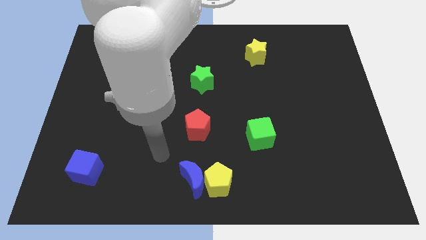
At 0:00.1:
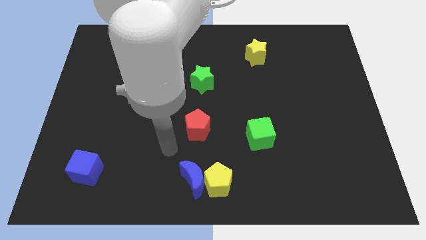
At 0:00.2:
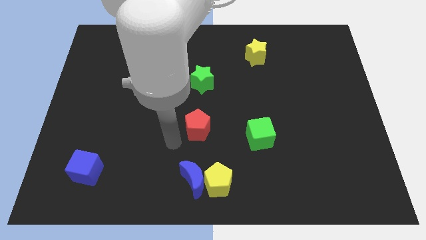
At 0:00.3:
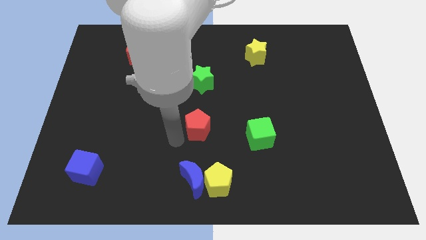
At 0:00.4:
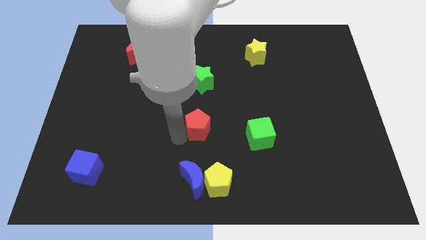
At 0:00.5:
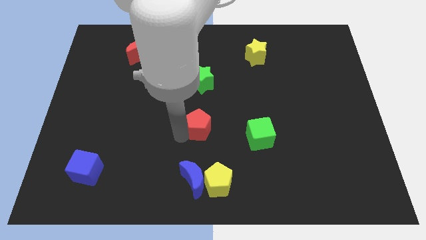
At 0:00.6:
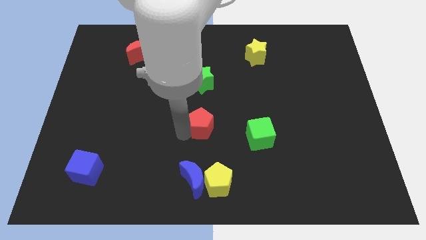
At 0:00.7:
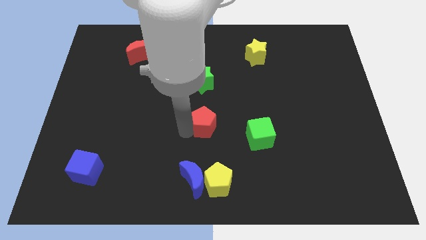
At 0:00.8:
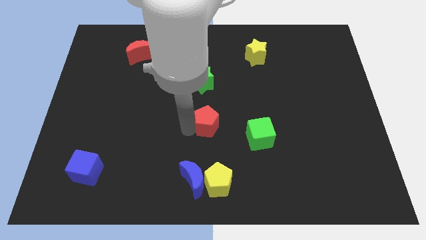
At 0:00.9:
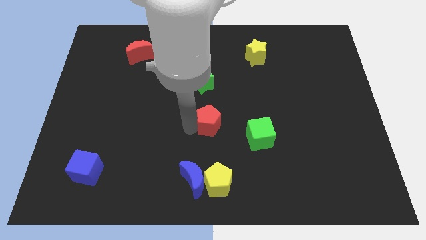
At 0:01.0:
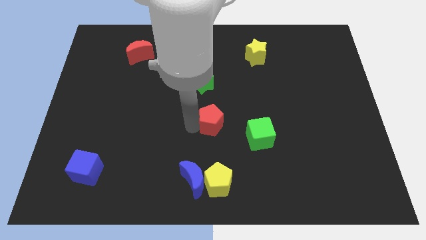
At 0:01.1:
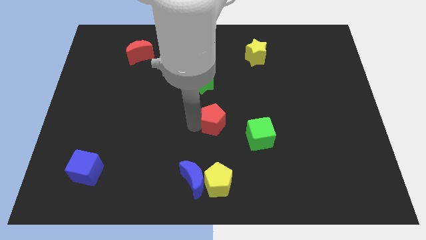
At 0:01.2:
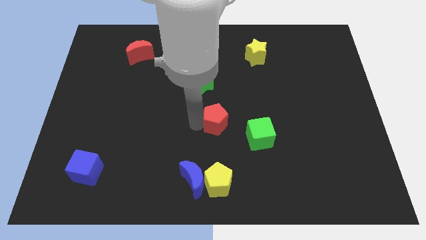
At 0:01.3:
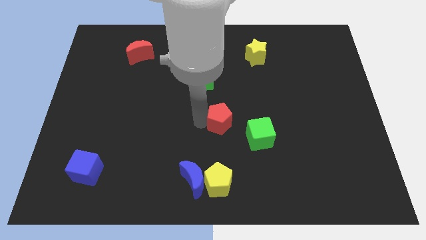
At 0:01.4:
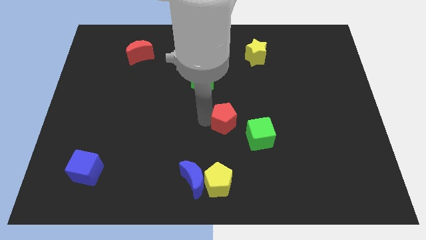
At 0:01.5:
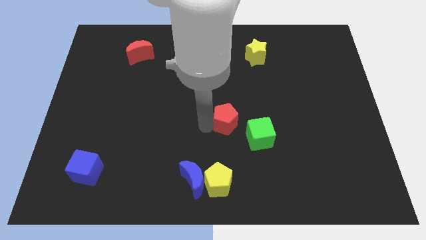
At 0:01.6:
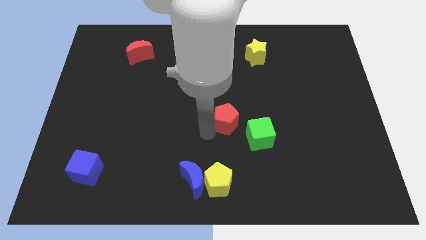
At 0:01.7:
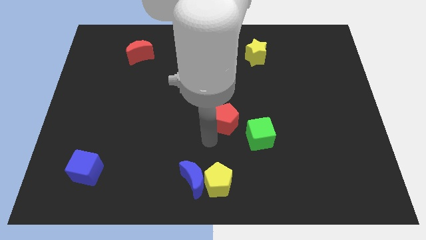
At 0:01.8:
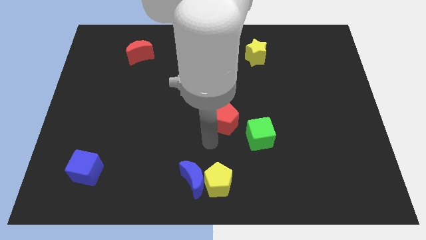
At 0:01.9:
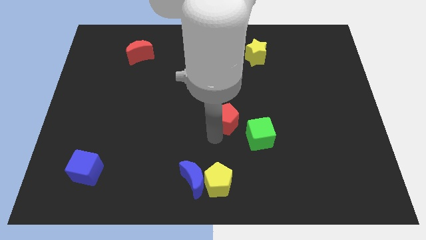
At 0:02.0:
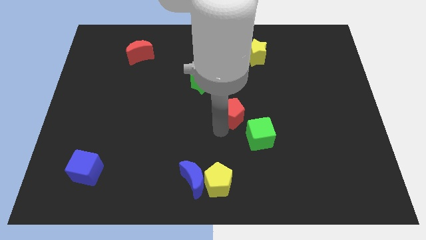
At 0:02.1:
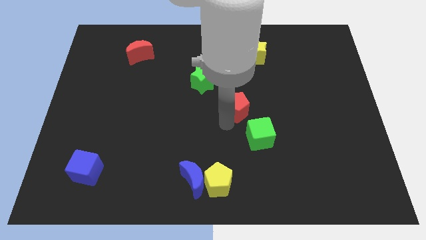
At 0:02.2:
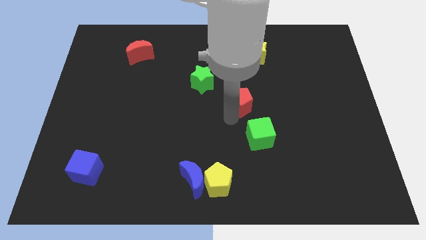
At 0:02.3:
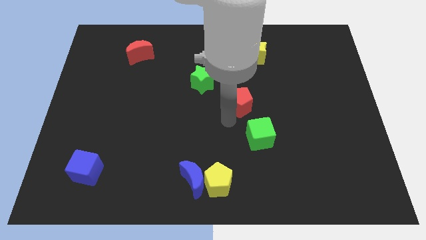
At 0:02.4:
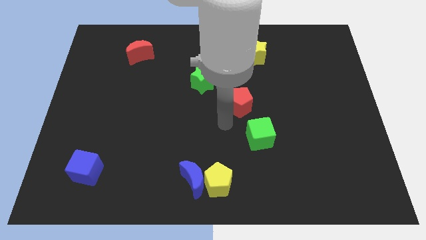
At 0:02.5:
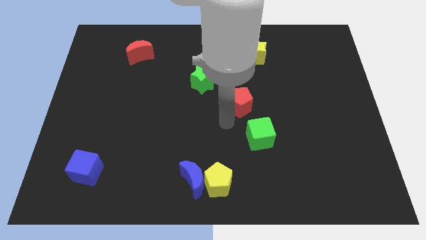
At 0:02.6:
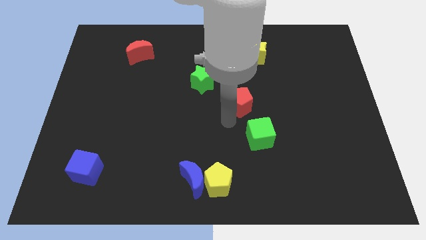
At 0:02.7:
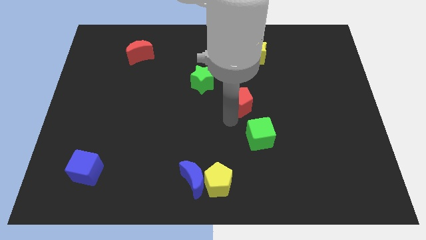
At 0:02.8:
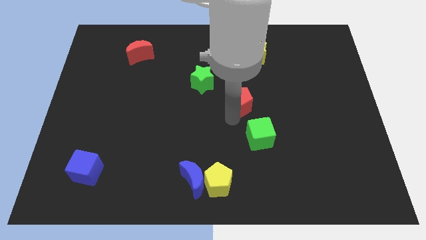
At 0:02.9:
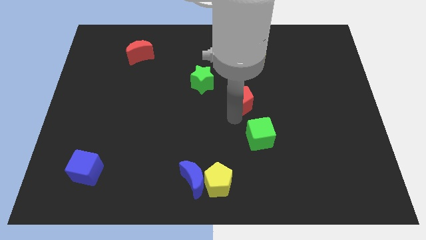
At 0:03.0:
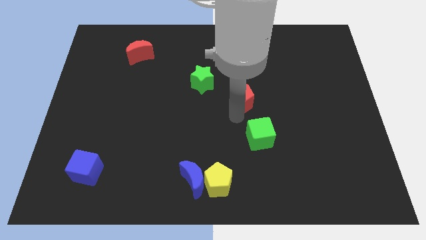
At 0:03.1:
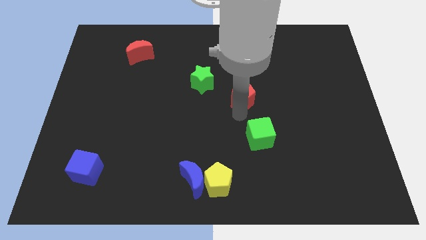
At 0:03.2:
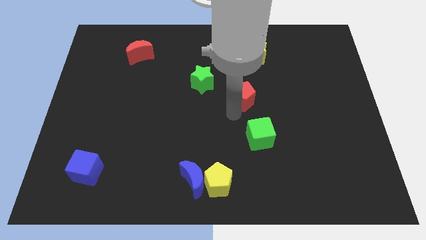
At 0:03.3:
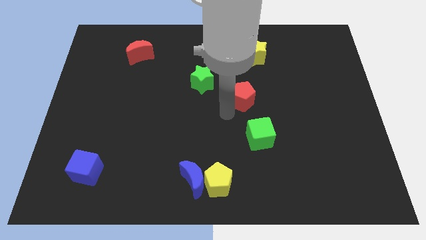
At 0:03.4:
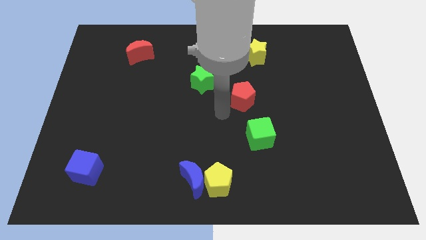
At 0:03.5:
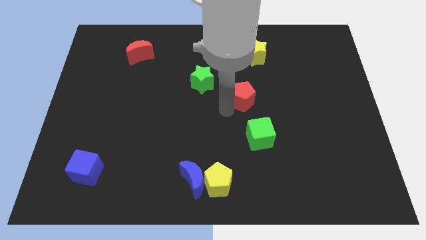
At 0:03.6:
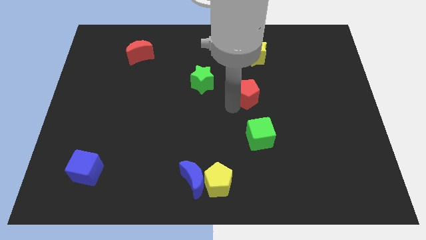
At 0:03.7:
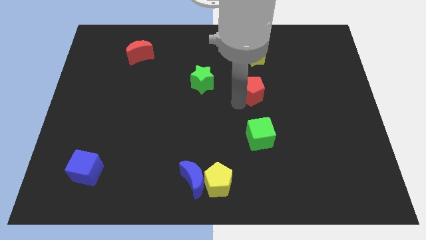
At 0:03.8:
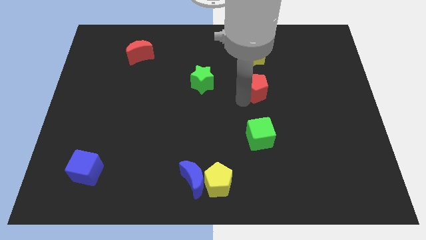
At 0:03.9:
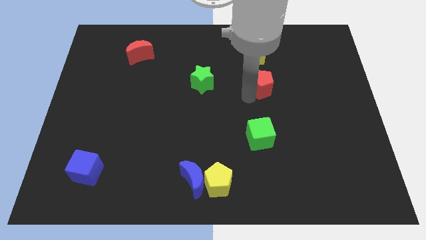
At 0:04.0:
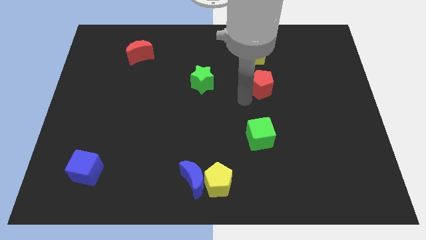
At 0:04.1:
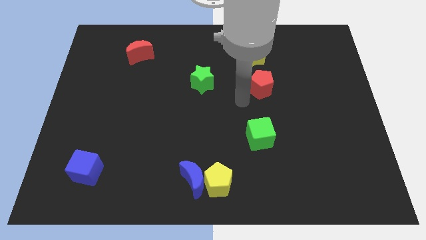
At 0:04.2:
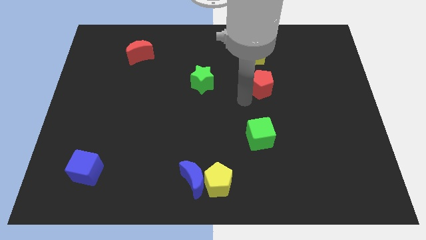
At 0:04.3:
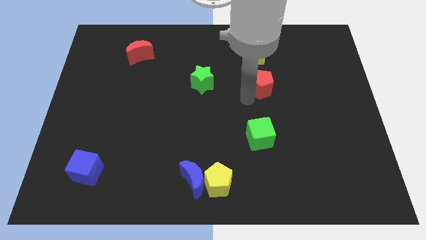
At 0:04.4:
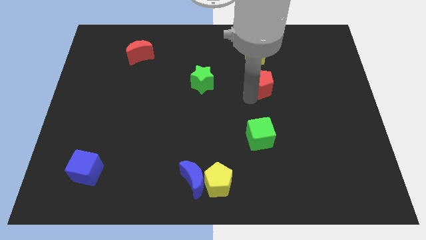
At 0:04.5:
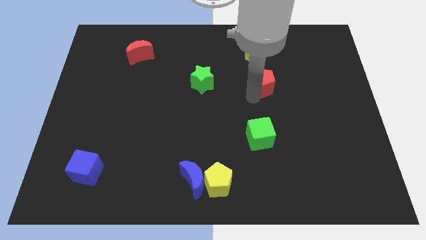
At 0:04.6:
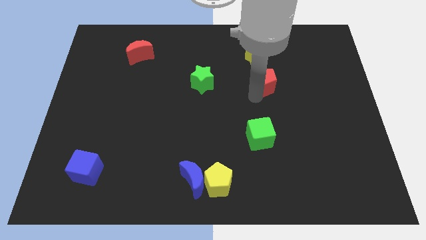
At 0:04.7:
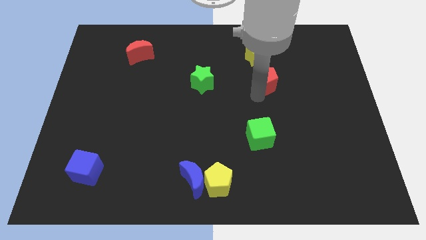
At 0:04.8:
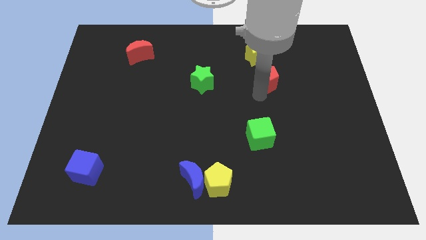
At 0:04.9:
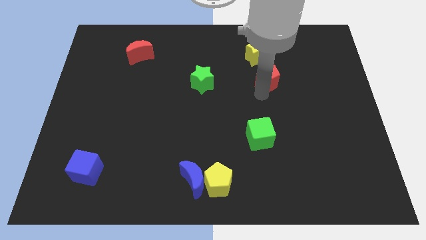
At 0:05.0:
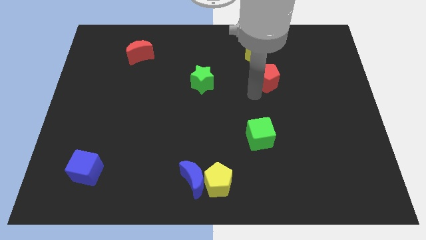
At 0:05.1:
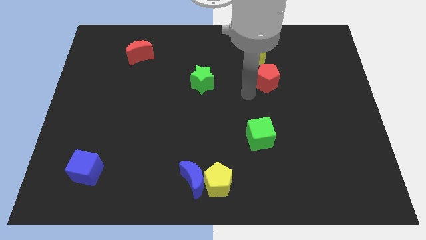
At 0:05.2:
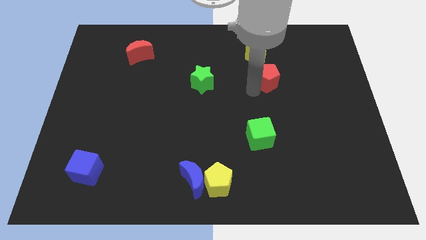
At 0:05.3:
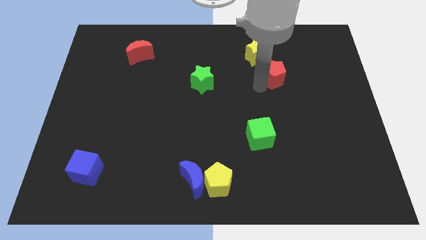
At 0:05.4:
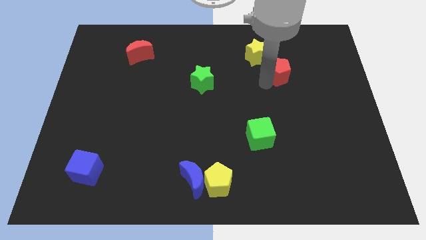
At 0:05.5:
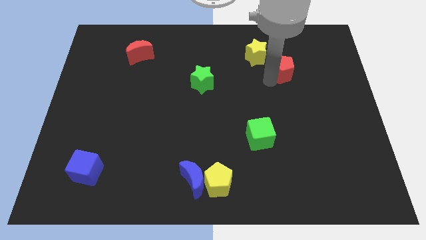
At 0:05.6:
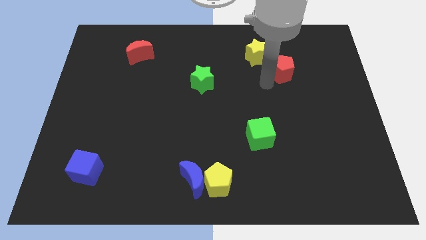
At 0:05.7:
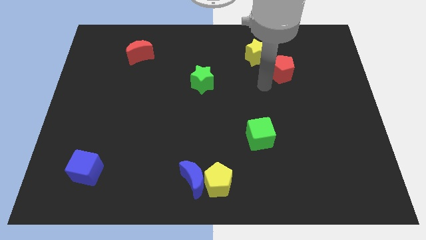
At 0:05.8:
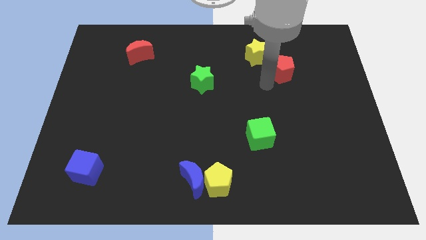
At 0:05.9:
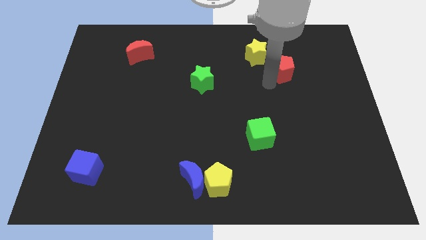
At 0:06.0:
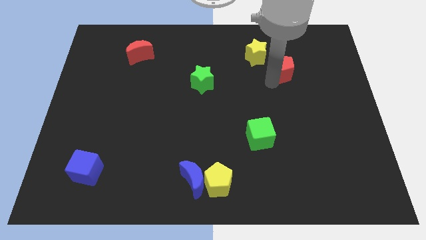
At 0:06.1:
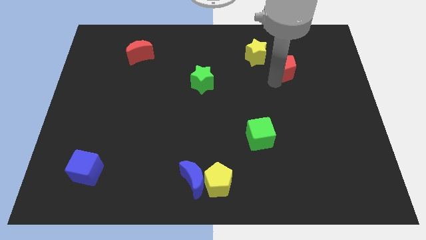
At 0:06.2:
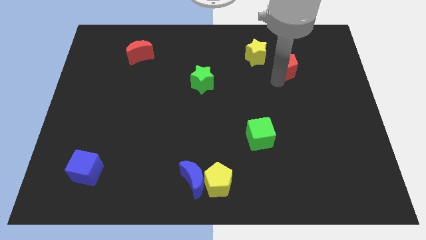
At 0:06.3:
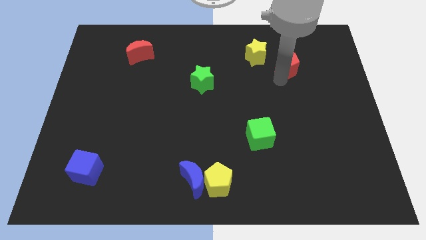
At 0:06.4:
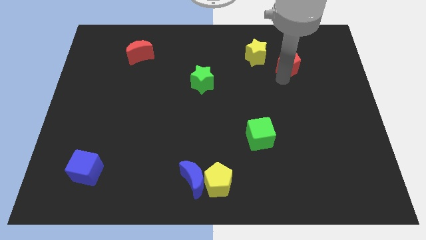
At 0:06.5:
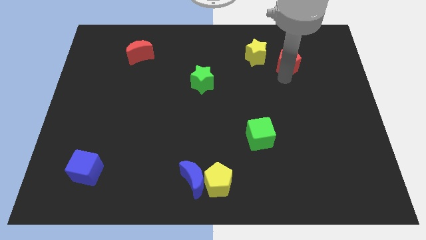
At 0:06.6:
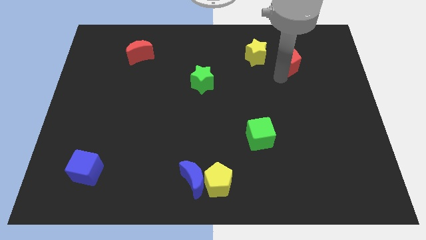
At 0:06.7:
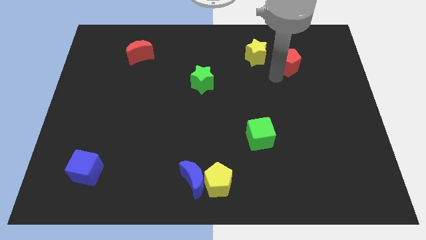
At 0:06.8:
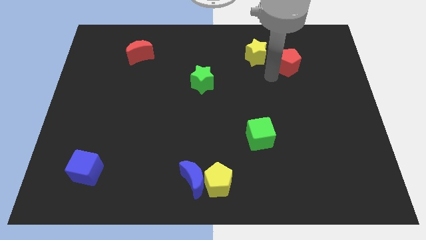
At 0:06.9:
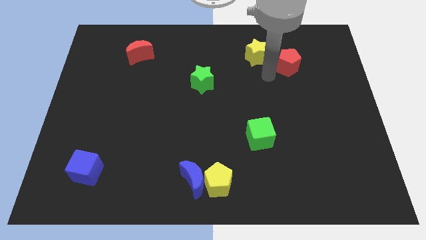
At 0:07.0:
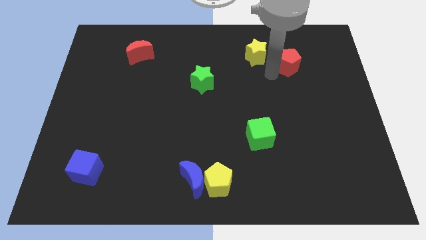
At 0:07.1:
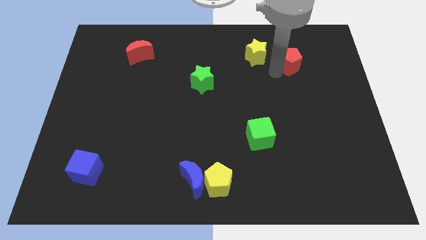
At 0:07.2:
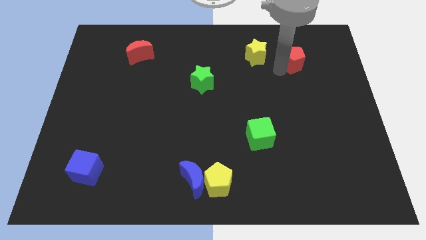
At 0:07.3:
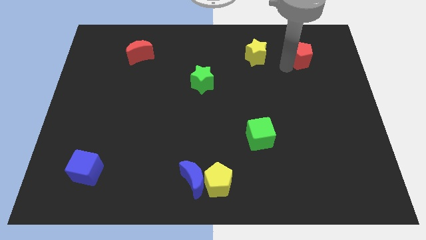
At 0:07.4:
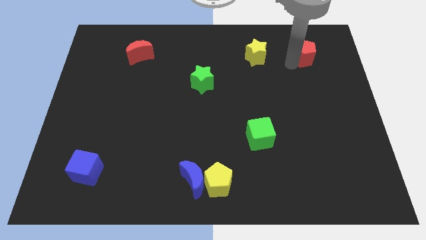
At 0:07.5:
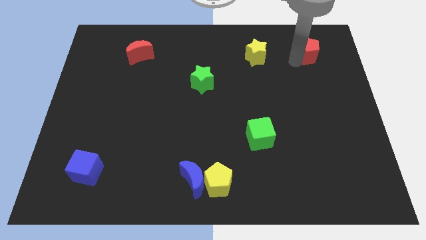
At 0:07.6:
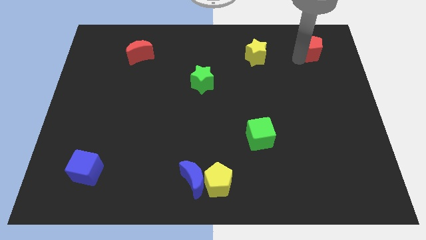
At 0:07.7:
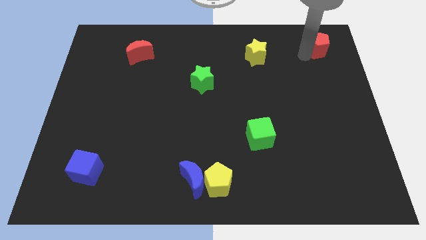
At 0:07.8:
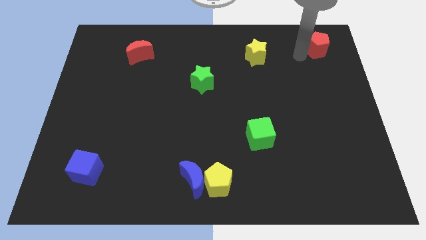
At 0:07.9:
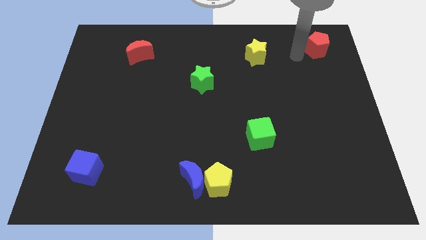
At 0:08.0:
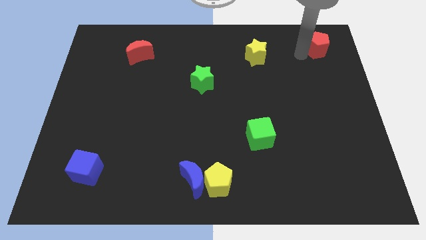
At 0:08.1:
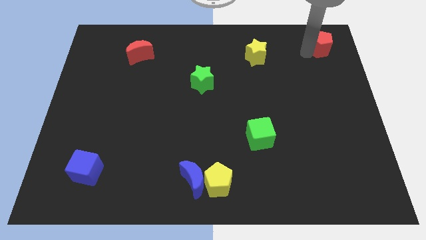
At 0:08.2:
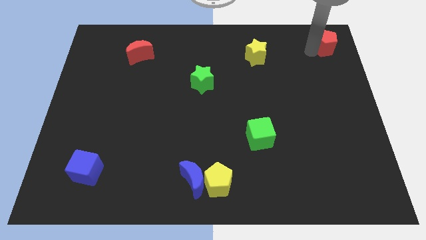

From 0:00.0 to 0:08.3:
slide the red pentagon to the top right
